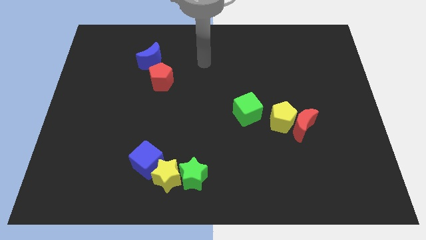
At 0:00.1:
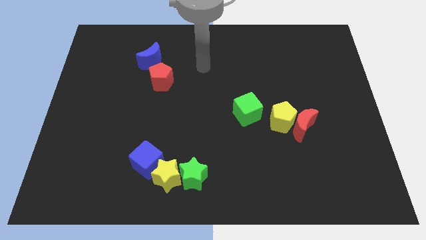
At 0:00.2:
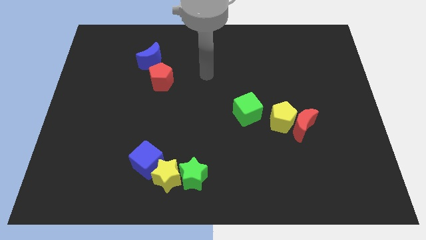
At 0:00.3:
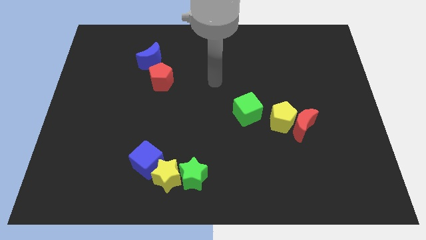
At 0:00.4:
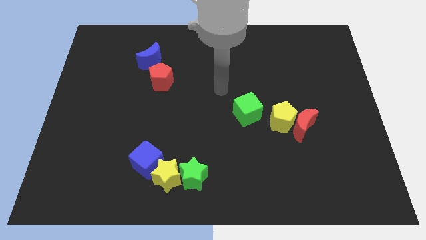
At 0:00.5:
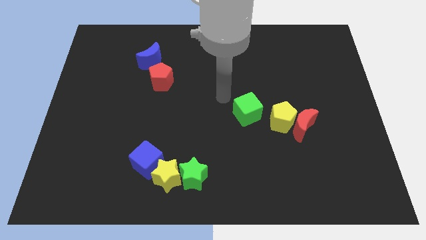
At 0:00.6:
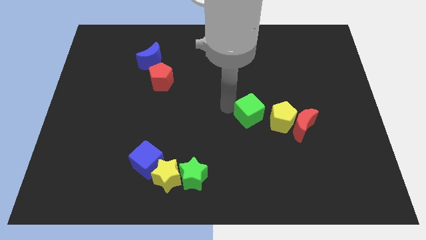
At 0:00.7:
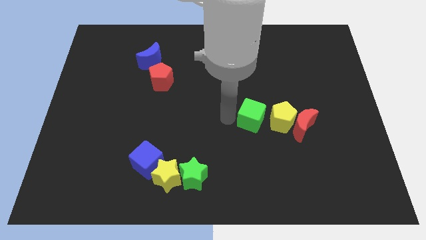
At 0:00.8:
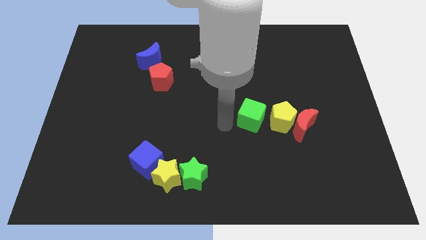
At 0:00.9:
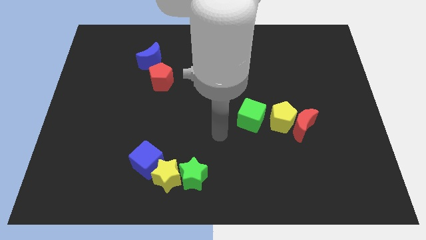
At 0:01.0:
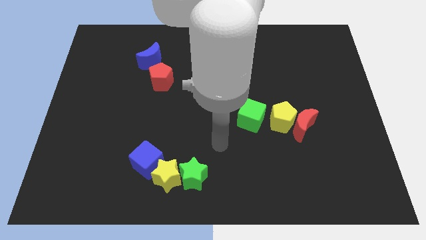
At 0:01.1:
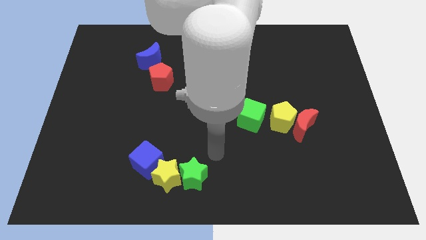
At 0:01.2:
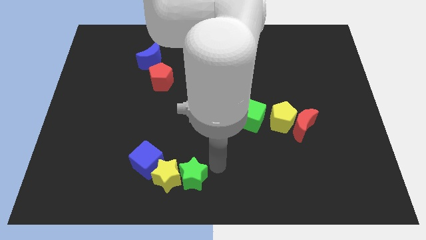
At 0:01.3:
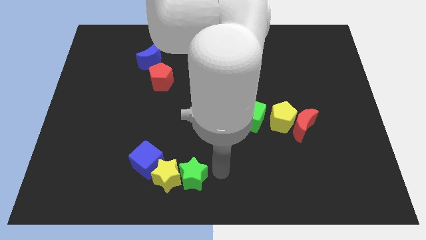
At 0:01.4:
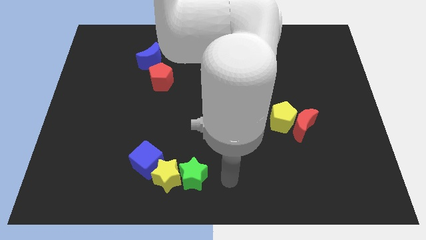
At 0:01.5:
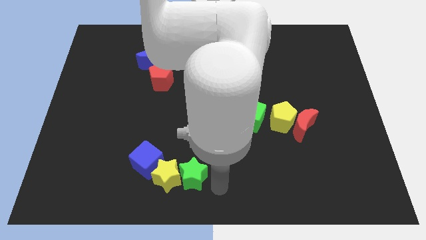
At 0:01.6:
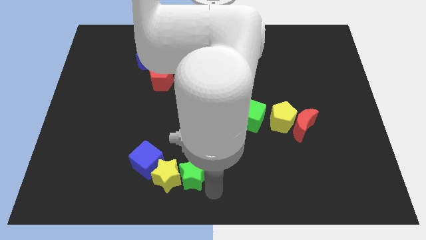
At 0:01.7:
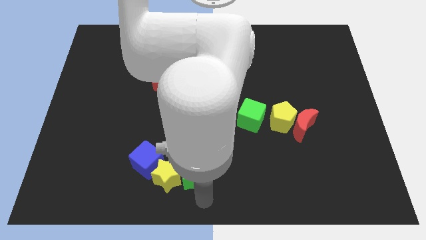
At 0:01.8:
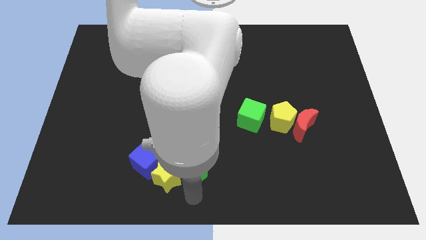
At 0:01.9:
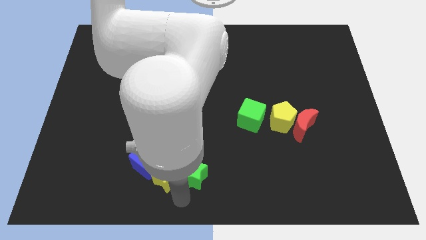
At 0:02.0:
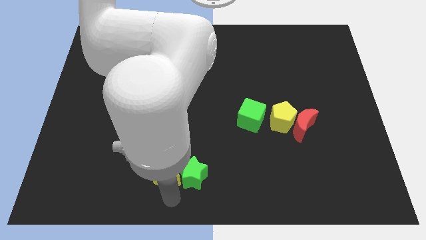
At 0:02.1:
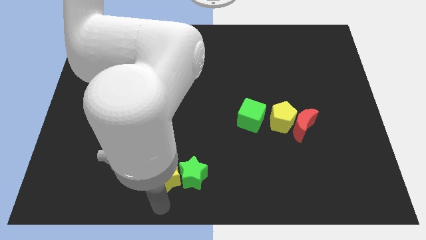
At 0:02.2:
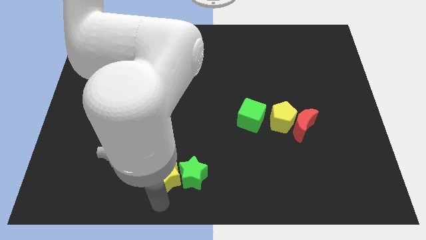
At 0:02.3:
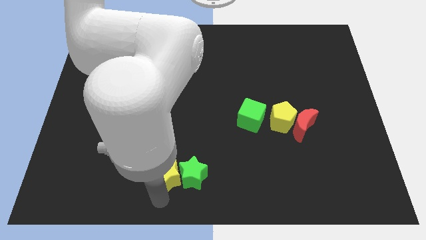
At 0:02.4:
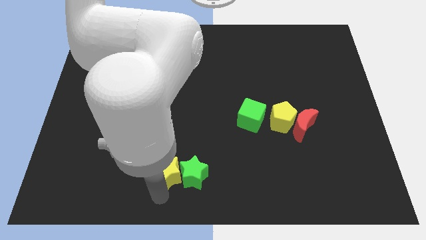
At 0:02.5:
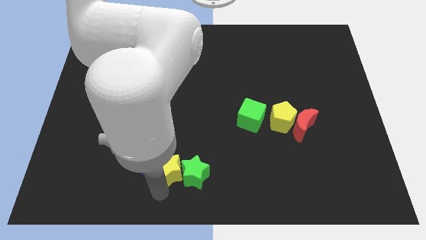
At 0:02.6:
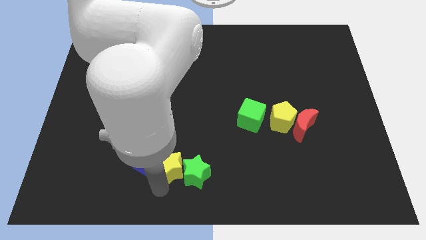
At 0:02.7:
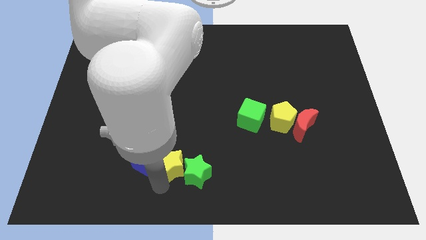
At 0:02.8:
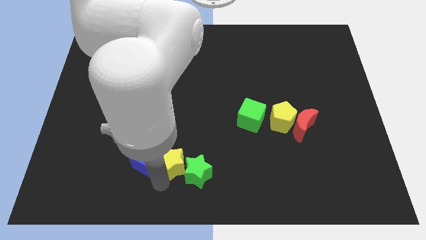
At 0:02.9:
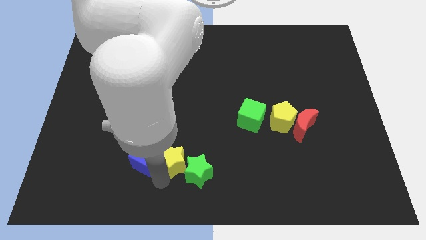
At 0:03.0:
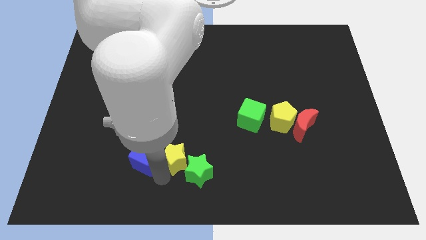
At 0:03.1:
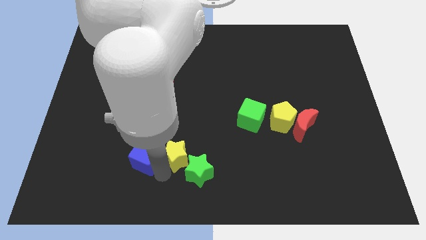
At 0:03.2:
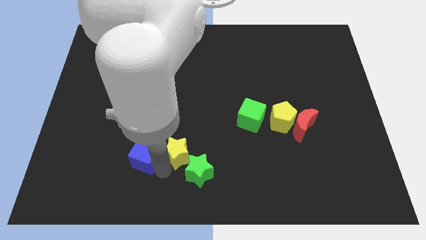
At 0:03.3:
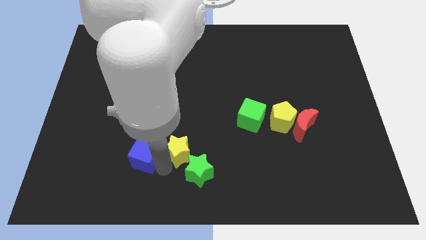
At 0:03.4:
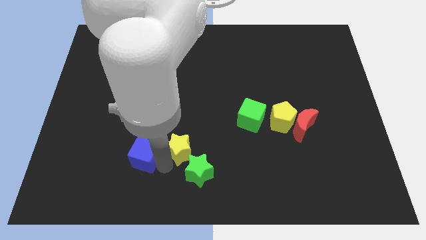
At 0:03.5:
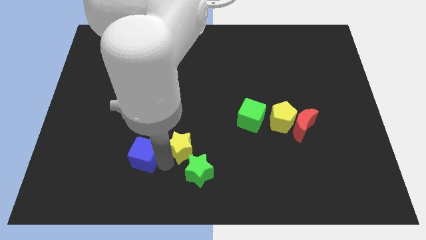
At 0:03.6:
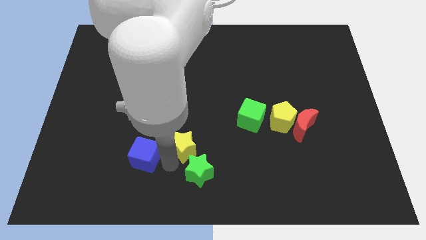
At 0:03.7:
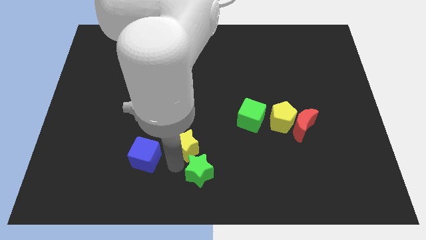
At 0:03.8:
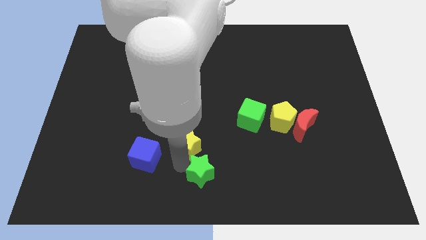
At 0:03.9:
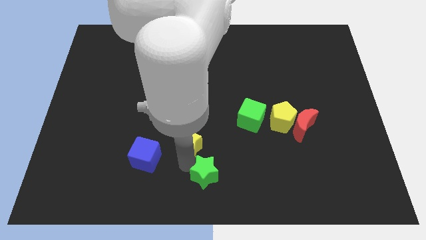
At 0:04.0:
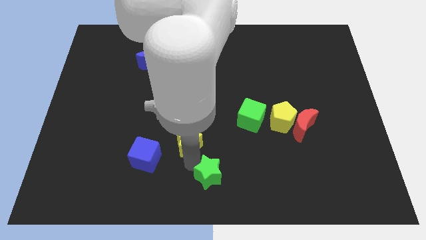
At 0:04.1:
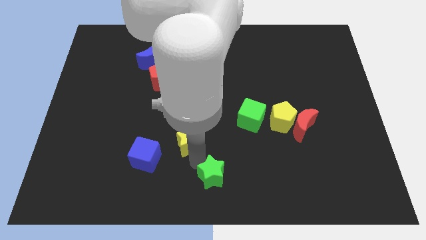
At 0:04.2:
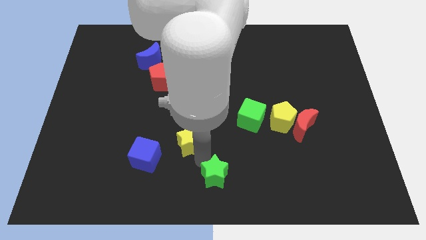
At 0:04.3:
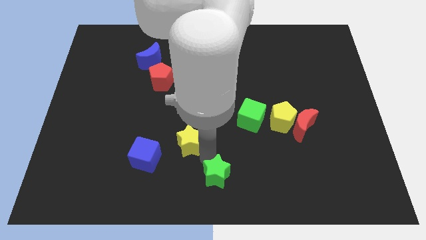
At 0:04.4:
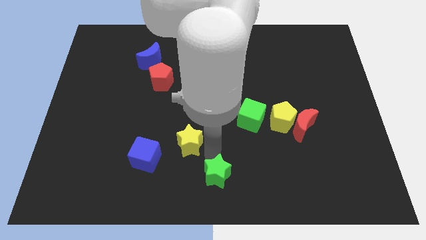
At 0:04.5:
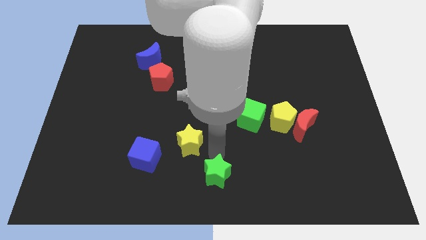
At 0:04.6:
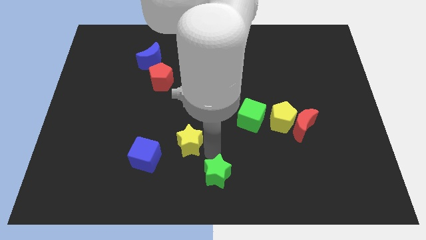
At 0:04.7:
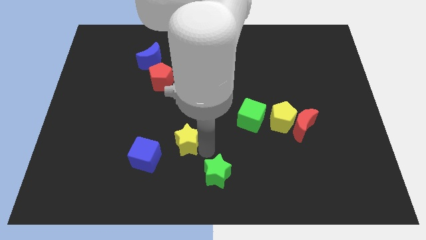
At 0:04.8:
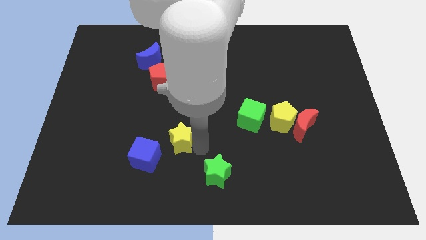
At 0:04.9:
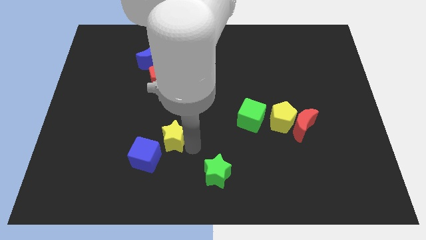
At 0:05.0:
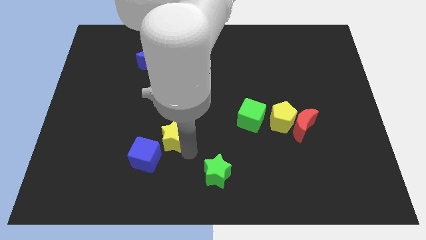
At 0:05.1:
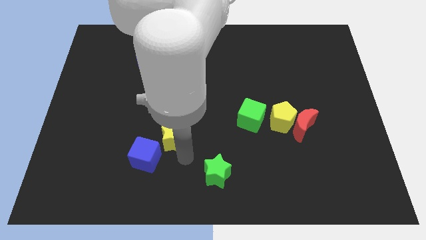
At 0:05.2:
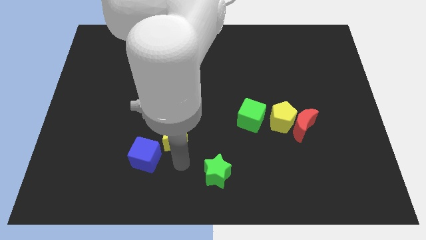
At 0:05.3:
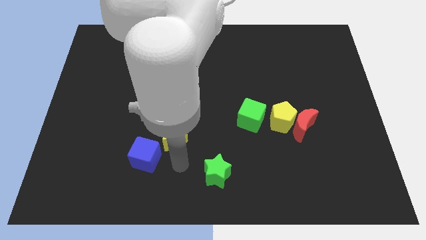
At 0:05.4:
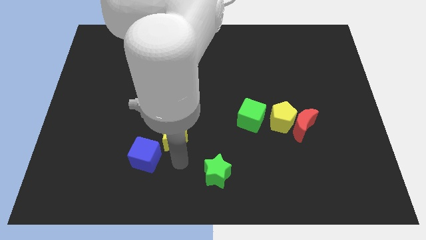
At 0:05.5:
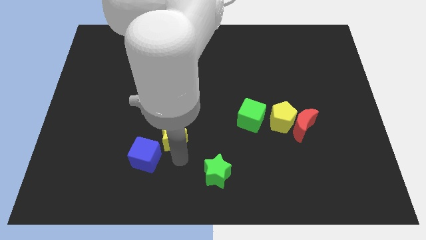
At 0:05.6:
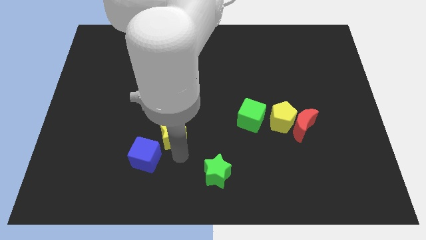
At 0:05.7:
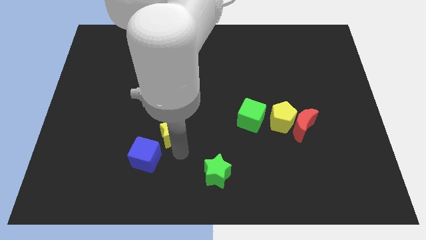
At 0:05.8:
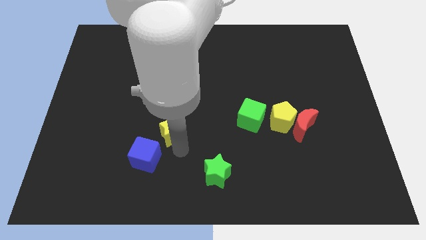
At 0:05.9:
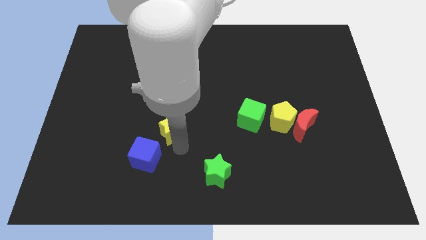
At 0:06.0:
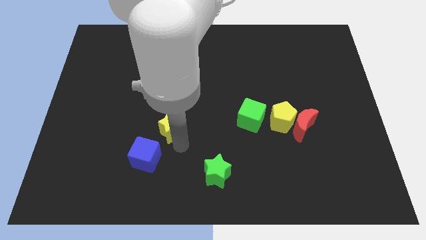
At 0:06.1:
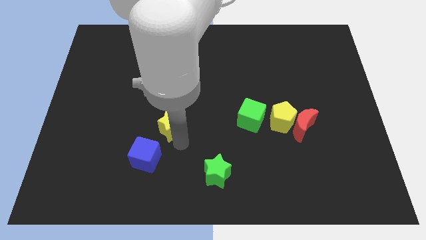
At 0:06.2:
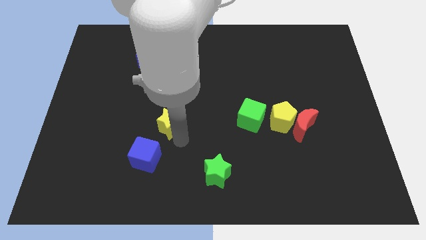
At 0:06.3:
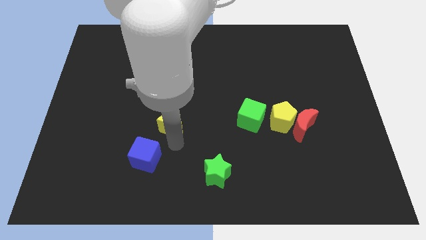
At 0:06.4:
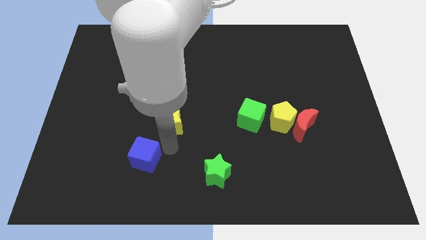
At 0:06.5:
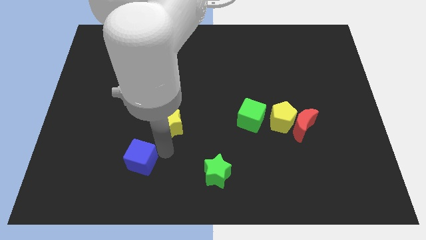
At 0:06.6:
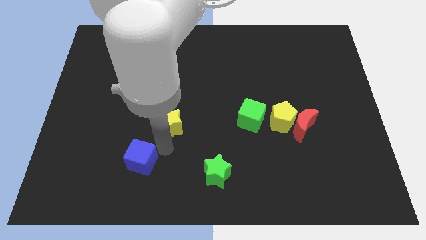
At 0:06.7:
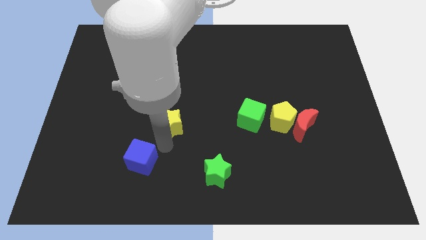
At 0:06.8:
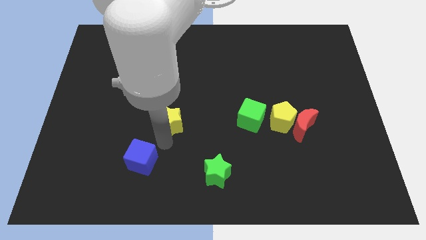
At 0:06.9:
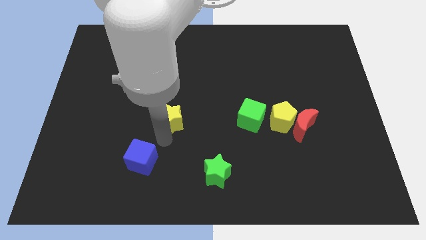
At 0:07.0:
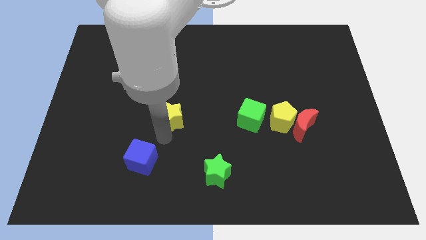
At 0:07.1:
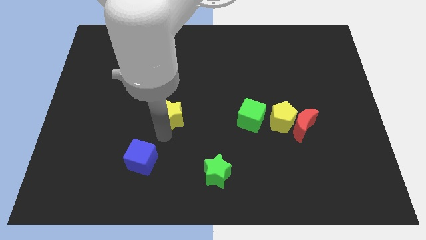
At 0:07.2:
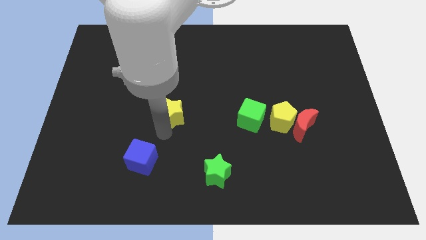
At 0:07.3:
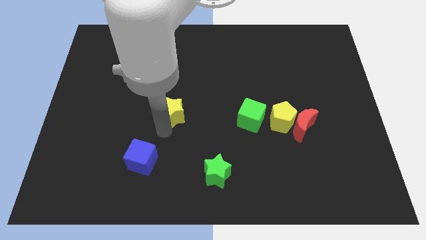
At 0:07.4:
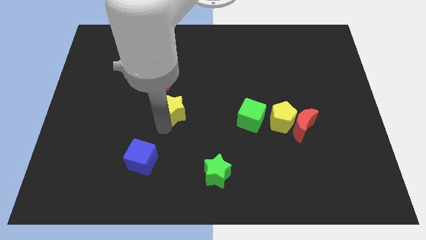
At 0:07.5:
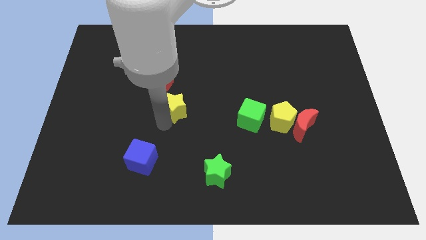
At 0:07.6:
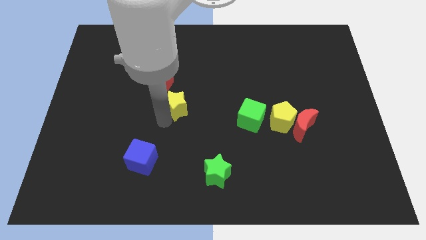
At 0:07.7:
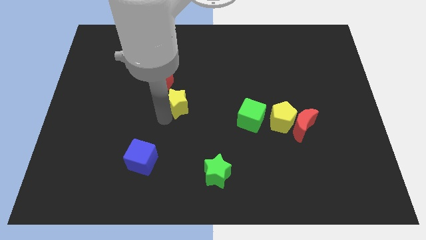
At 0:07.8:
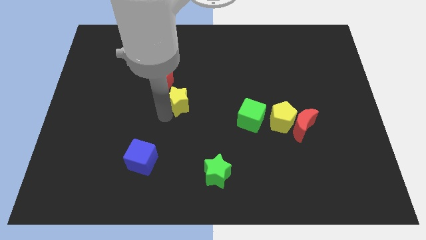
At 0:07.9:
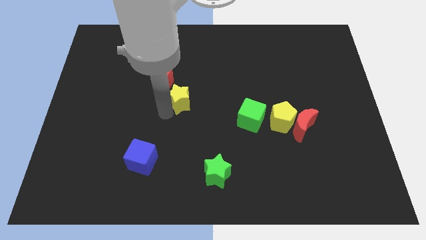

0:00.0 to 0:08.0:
move the yellow star upwards
